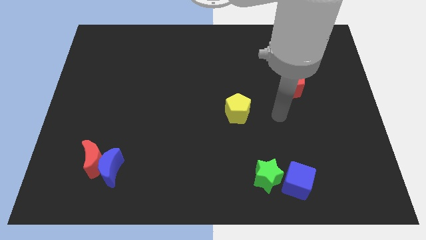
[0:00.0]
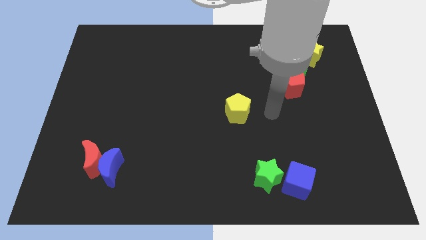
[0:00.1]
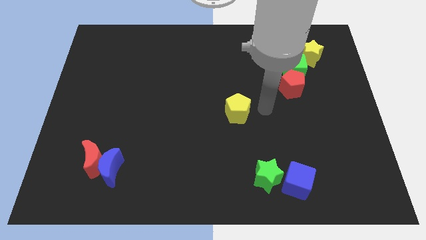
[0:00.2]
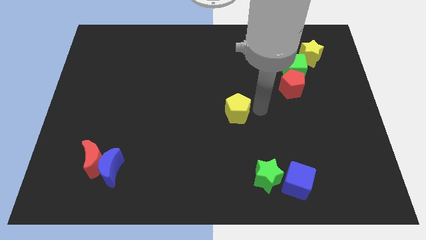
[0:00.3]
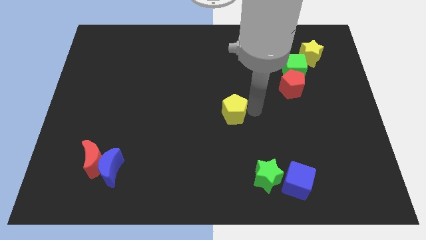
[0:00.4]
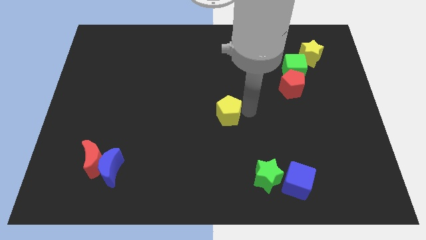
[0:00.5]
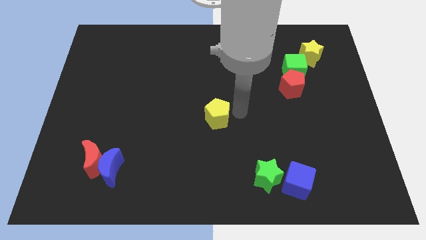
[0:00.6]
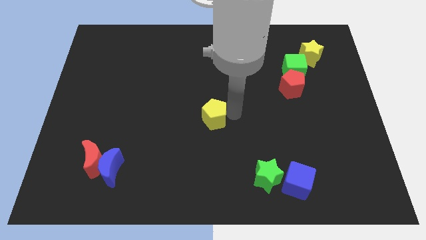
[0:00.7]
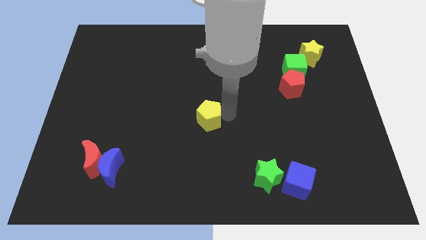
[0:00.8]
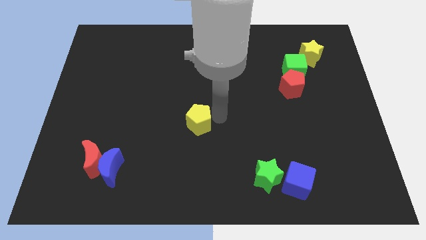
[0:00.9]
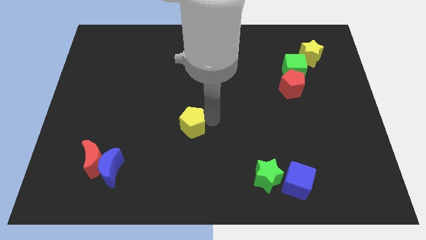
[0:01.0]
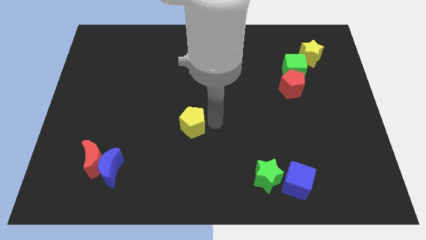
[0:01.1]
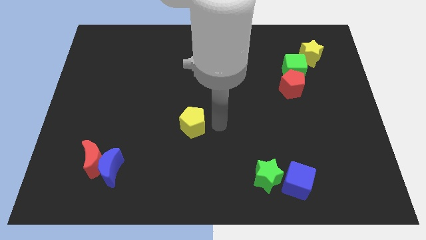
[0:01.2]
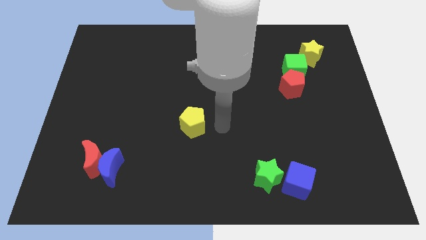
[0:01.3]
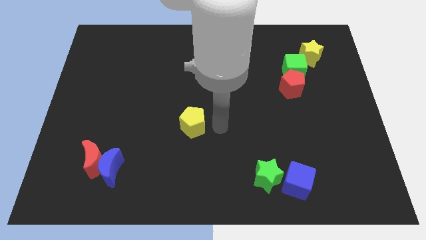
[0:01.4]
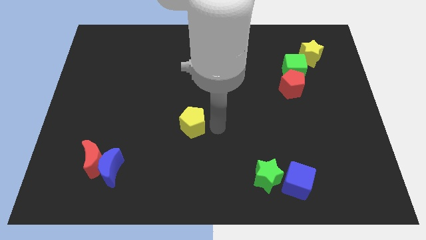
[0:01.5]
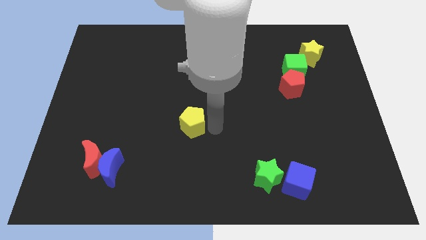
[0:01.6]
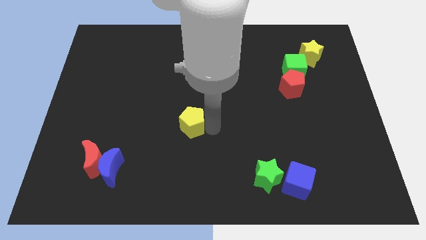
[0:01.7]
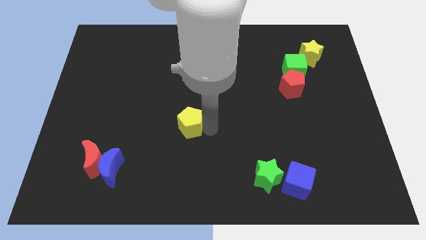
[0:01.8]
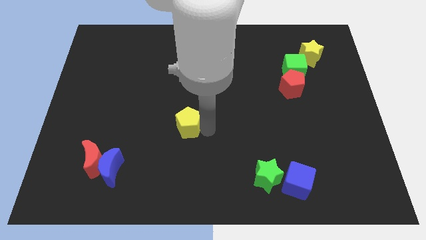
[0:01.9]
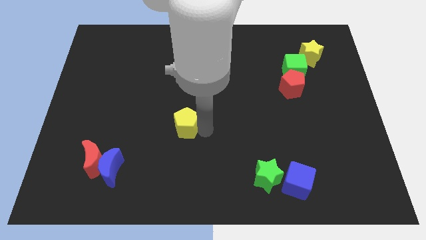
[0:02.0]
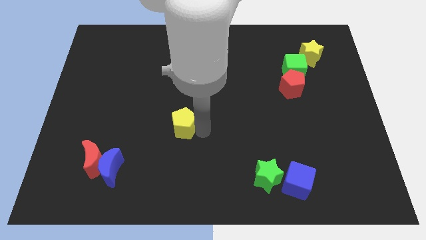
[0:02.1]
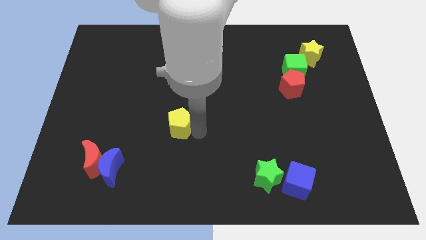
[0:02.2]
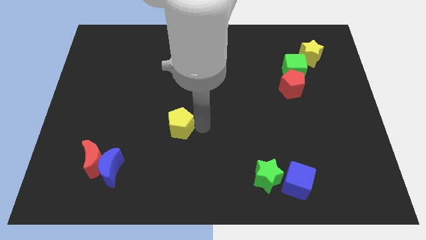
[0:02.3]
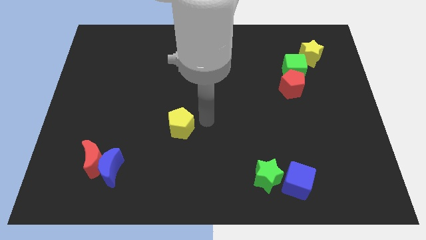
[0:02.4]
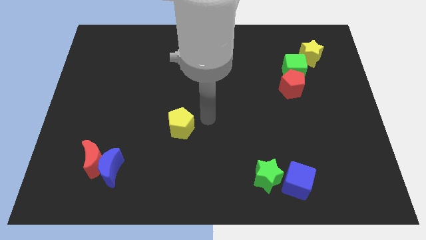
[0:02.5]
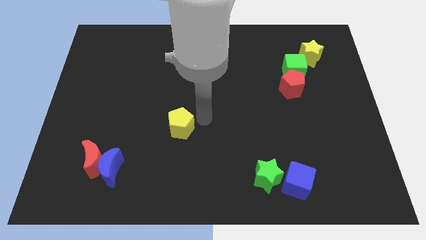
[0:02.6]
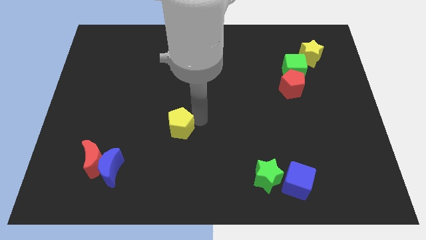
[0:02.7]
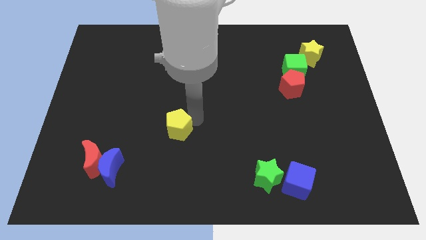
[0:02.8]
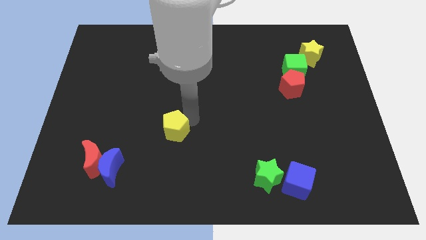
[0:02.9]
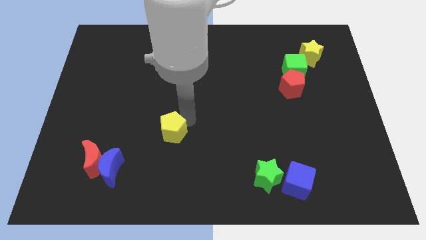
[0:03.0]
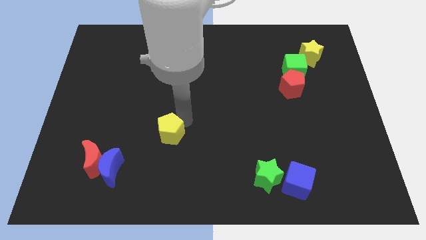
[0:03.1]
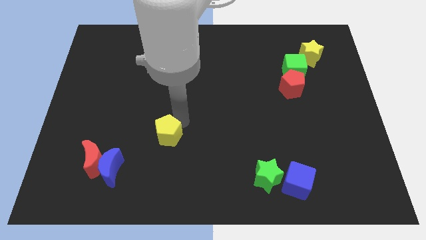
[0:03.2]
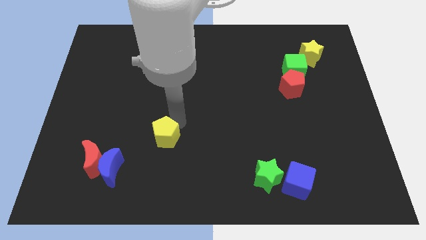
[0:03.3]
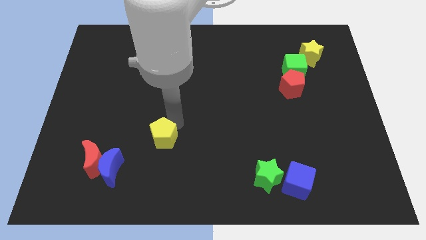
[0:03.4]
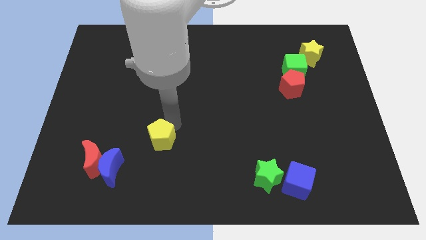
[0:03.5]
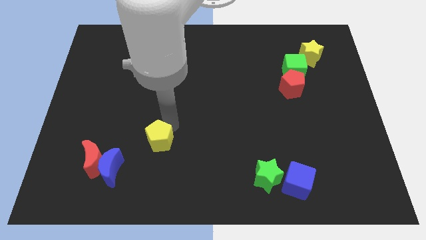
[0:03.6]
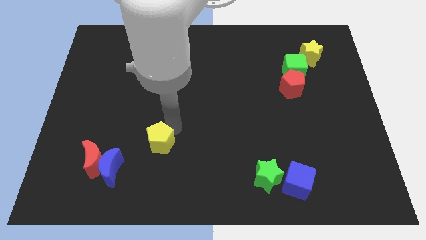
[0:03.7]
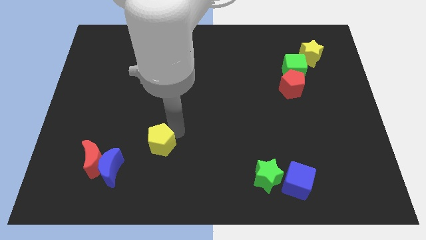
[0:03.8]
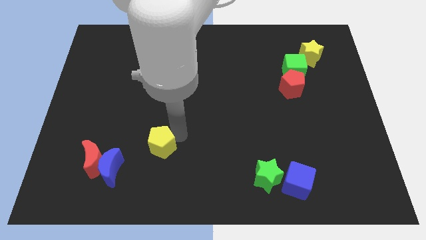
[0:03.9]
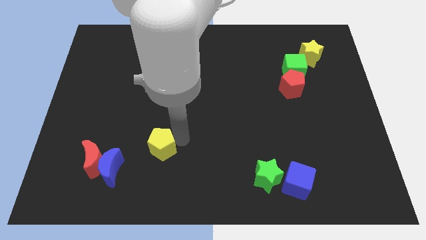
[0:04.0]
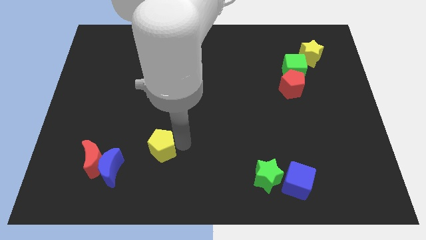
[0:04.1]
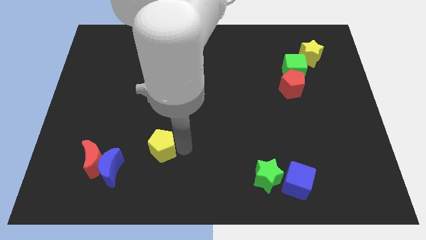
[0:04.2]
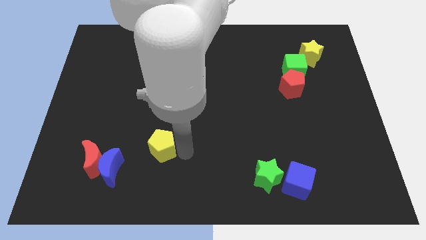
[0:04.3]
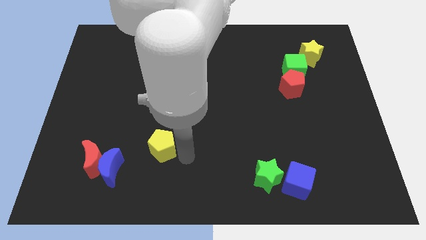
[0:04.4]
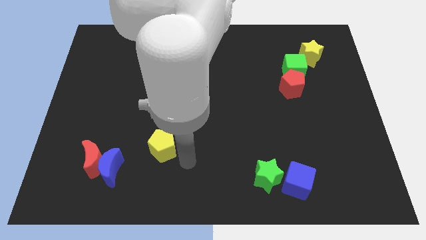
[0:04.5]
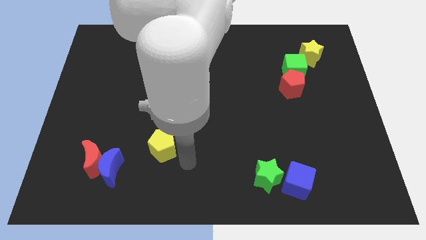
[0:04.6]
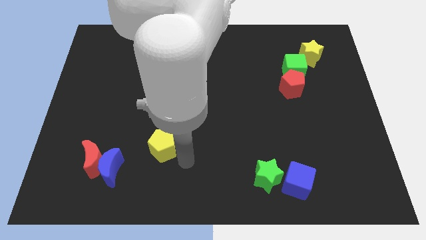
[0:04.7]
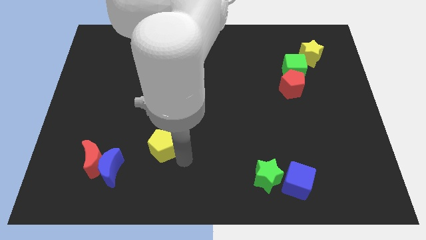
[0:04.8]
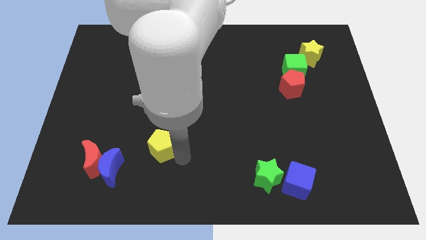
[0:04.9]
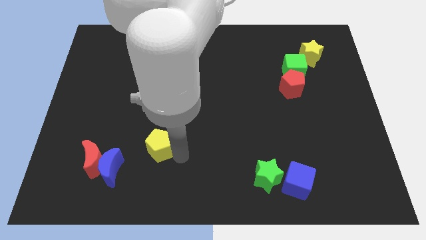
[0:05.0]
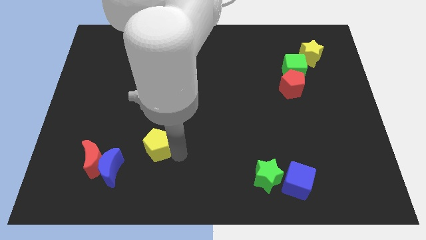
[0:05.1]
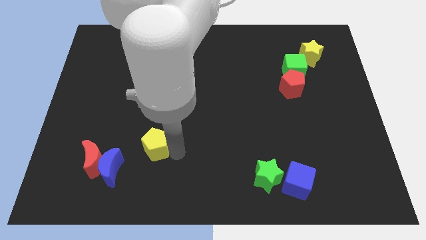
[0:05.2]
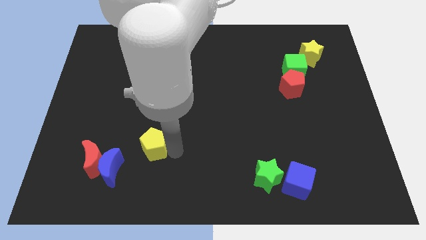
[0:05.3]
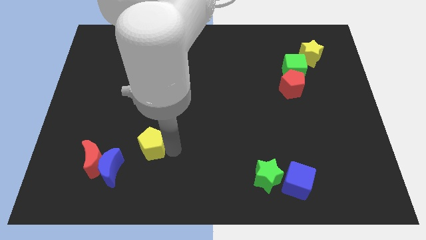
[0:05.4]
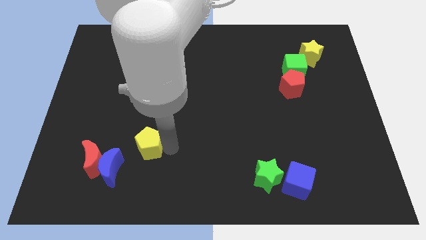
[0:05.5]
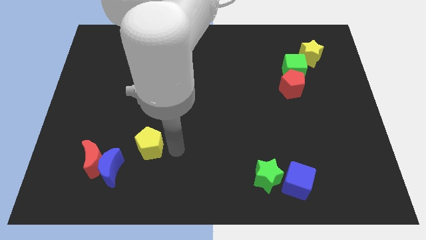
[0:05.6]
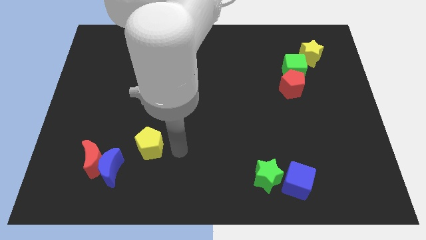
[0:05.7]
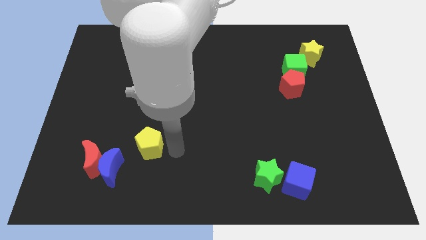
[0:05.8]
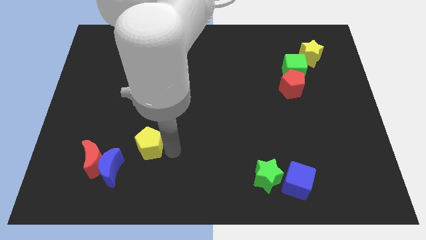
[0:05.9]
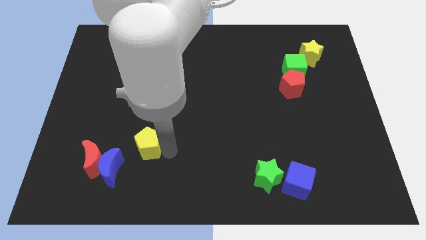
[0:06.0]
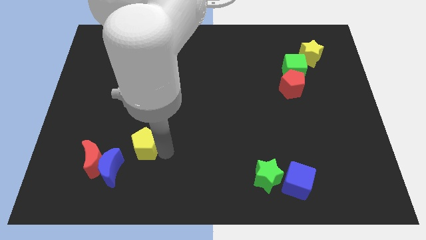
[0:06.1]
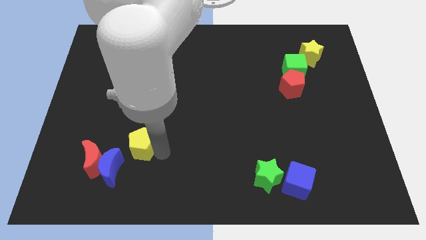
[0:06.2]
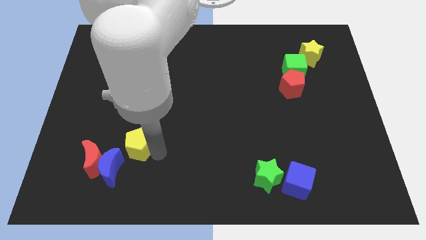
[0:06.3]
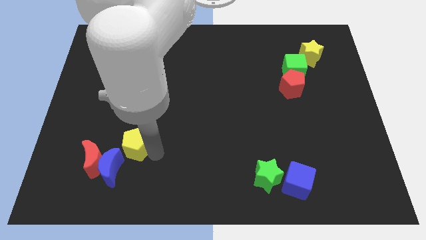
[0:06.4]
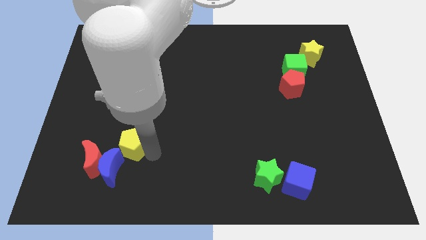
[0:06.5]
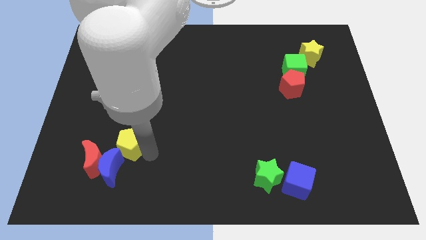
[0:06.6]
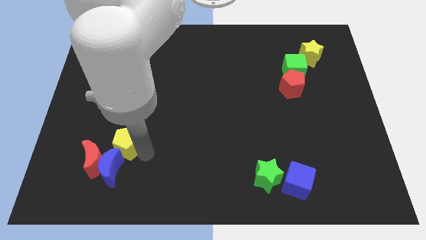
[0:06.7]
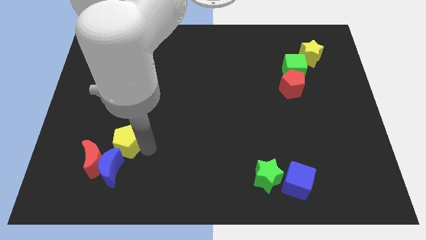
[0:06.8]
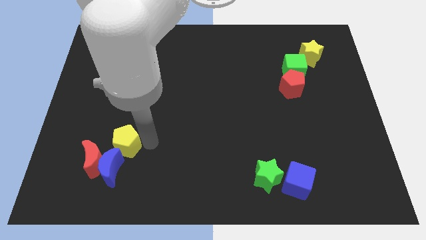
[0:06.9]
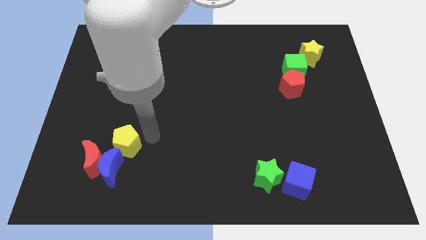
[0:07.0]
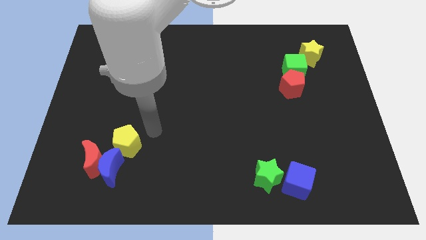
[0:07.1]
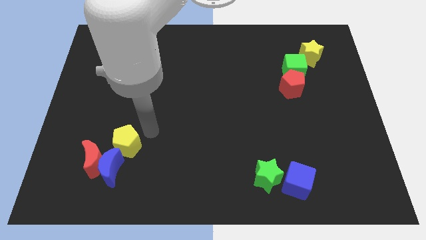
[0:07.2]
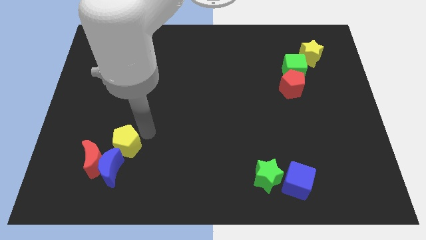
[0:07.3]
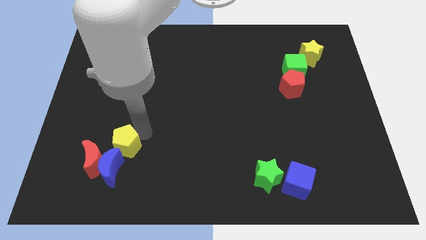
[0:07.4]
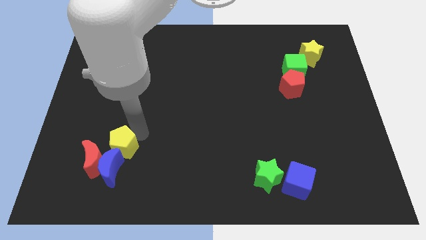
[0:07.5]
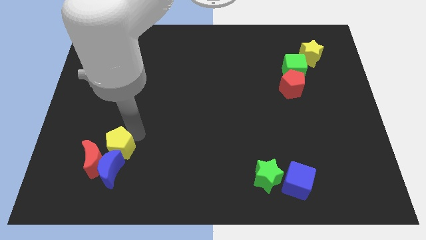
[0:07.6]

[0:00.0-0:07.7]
put the yellow pentagon towards the red moon

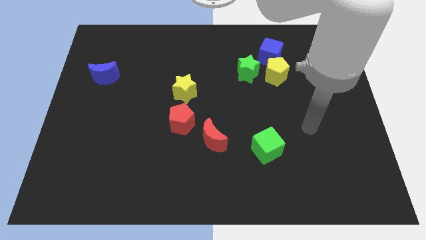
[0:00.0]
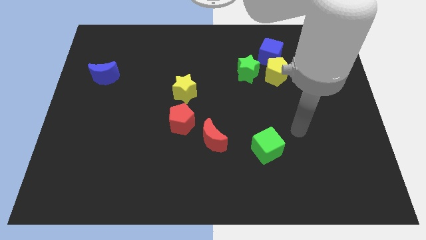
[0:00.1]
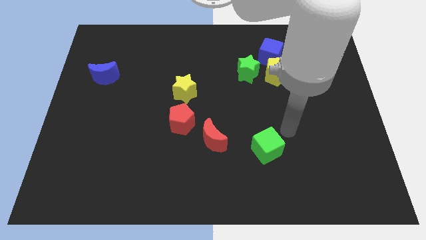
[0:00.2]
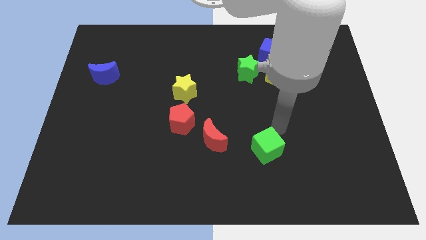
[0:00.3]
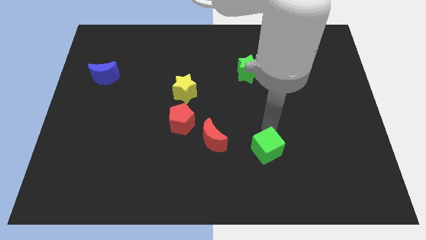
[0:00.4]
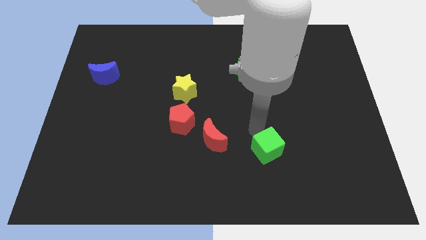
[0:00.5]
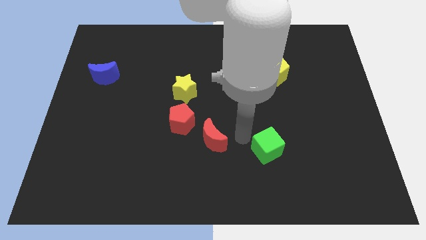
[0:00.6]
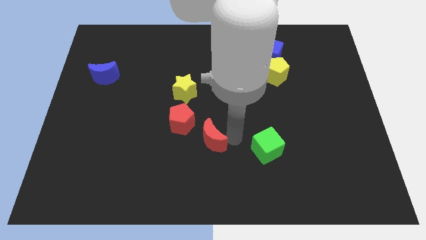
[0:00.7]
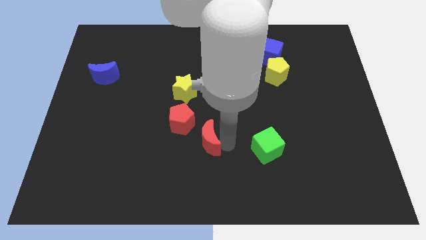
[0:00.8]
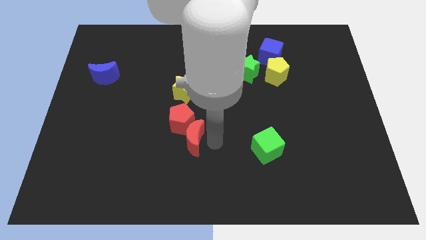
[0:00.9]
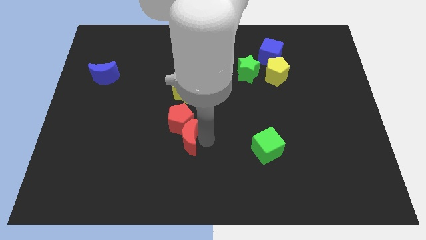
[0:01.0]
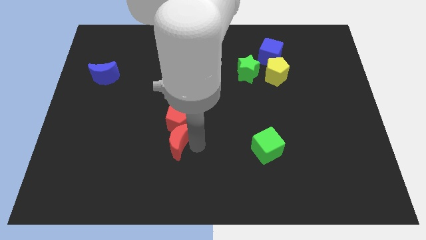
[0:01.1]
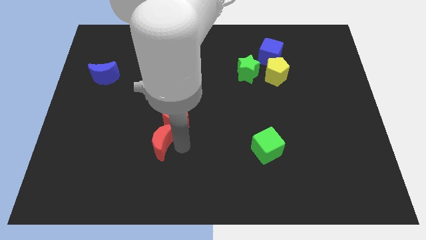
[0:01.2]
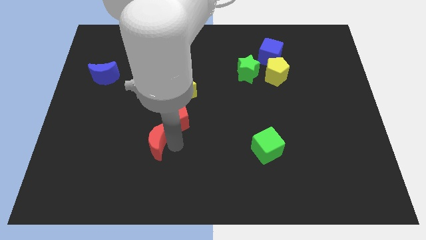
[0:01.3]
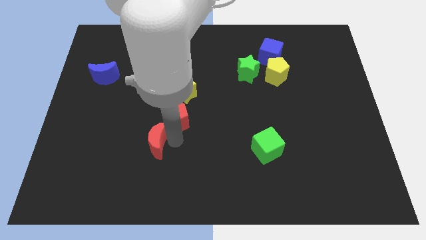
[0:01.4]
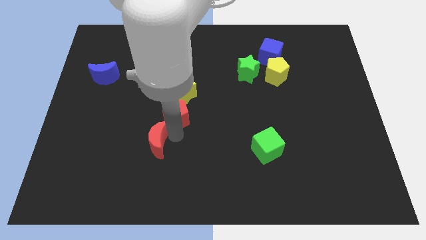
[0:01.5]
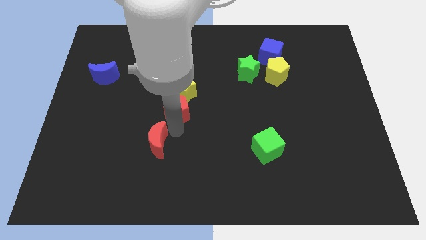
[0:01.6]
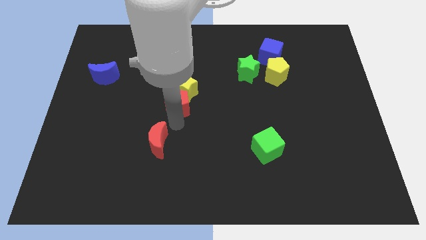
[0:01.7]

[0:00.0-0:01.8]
push the red pentagon to the yellow star
